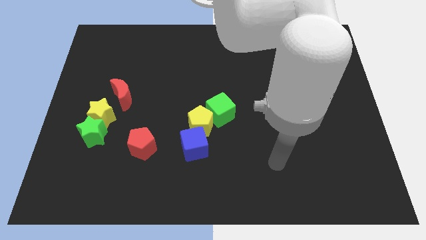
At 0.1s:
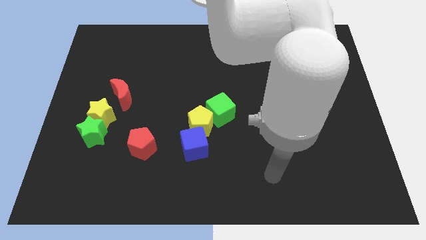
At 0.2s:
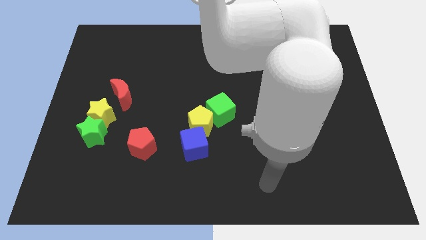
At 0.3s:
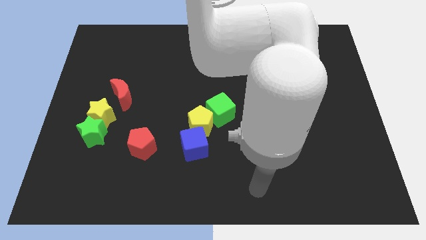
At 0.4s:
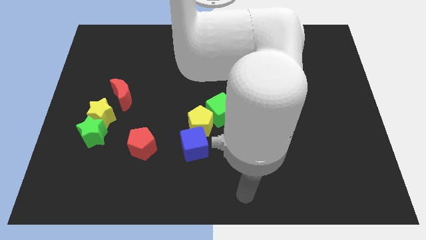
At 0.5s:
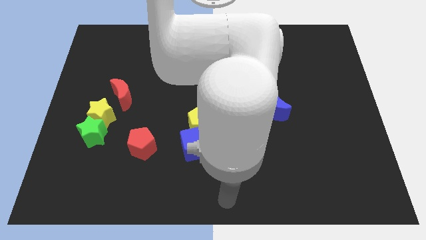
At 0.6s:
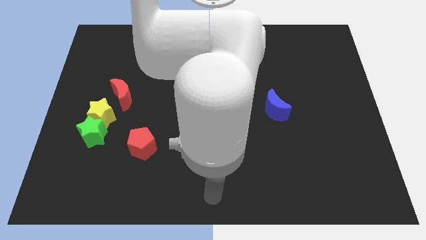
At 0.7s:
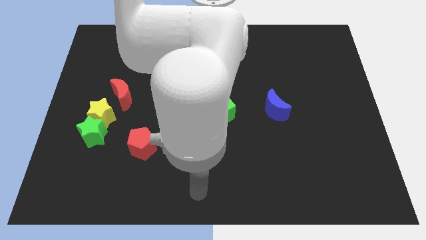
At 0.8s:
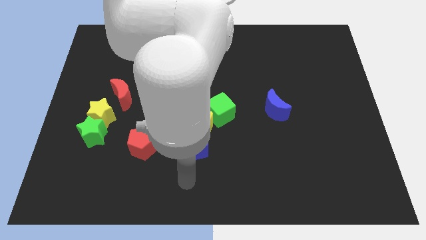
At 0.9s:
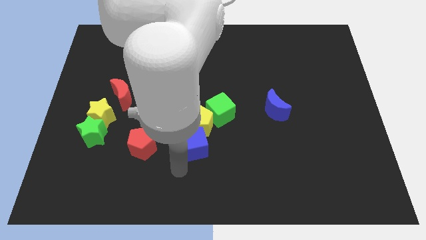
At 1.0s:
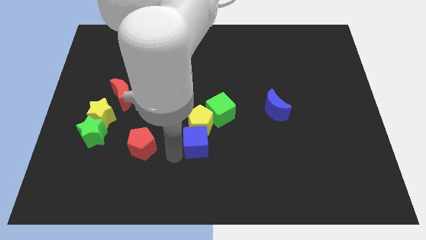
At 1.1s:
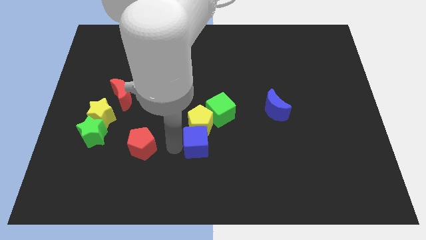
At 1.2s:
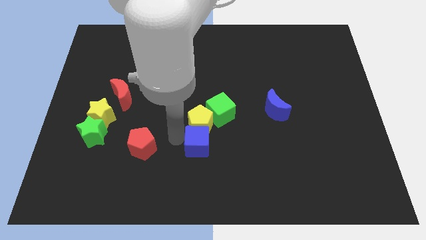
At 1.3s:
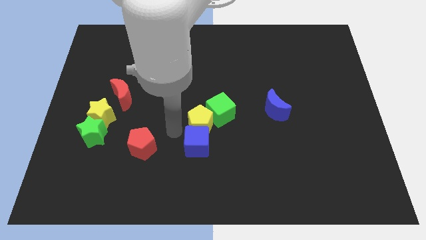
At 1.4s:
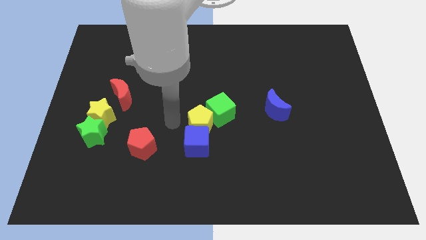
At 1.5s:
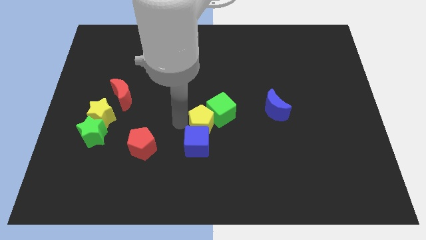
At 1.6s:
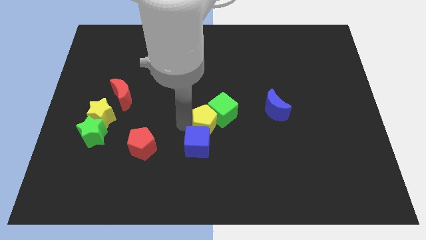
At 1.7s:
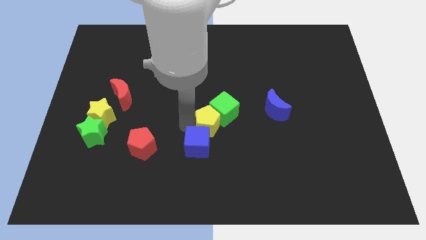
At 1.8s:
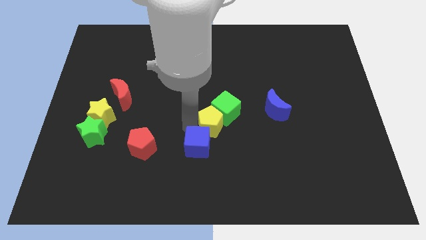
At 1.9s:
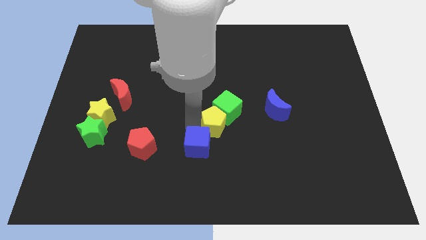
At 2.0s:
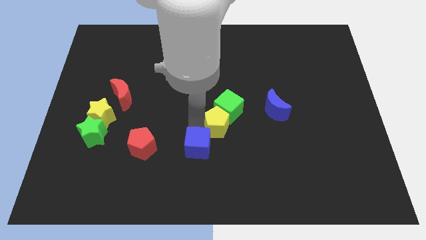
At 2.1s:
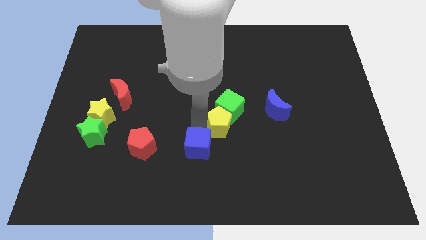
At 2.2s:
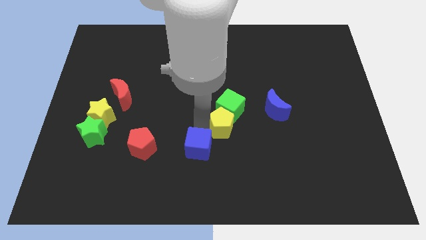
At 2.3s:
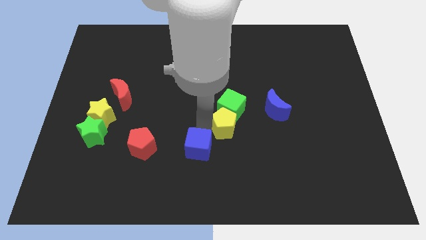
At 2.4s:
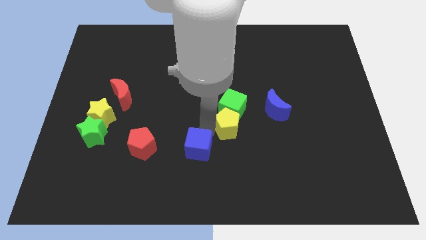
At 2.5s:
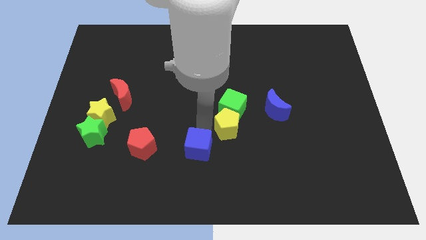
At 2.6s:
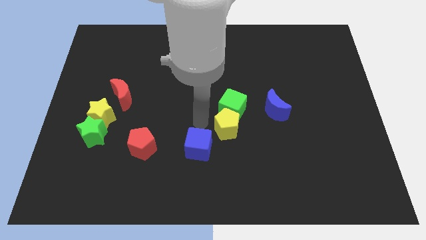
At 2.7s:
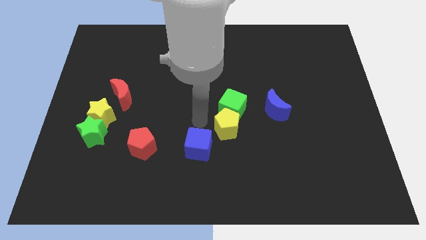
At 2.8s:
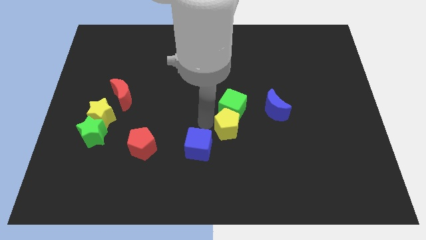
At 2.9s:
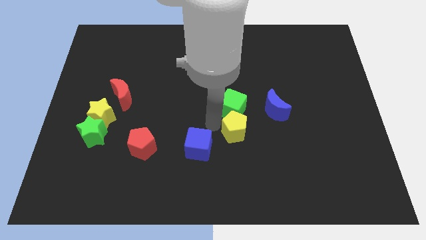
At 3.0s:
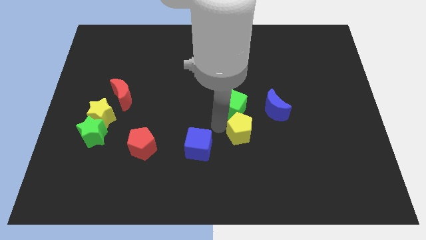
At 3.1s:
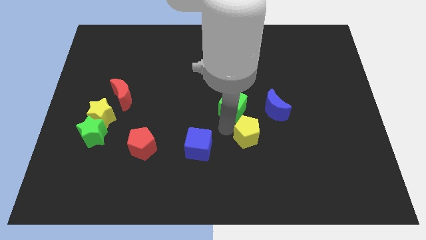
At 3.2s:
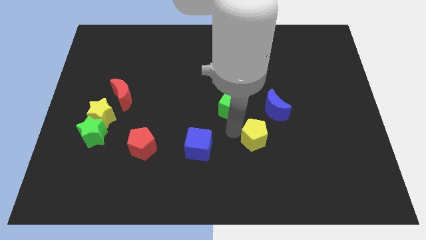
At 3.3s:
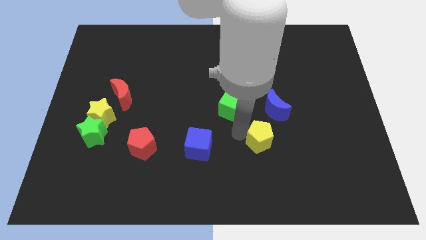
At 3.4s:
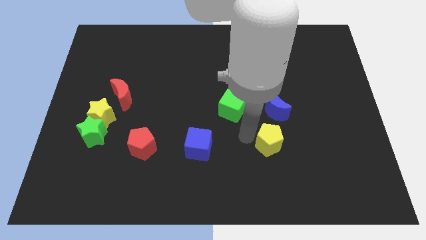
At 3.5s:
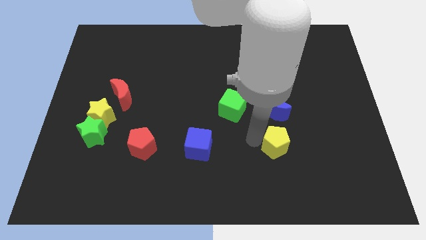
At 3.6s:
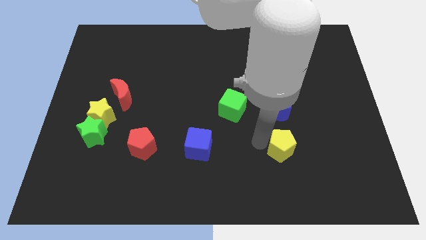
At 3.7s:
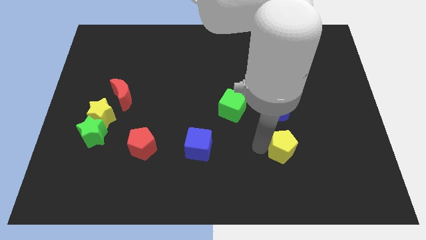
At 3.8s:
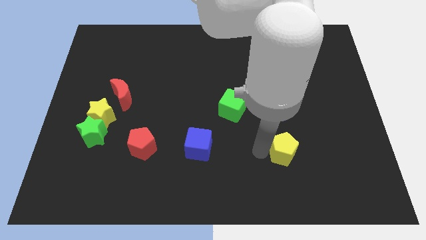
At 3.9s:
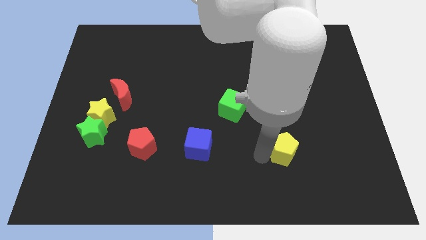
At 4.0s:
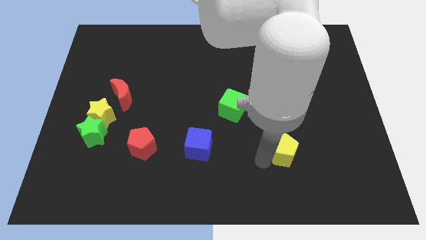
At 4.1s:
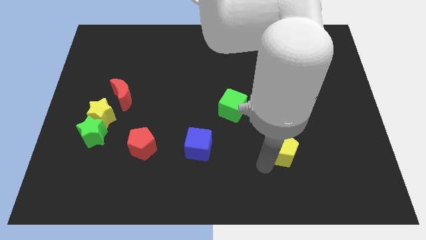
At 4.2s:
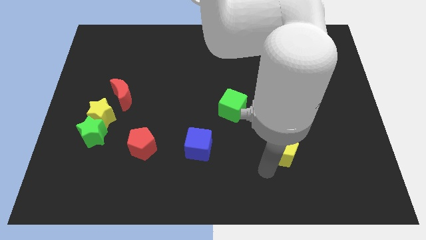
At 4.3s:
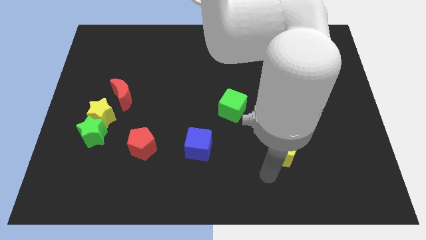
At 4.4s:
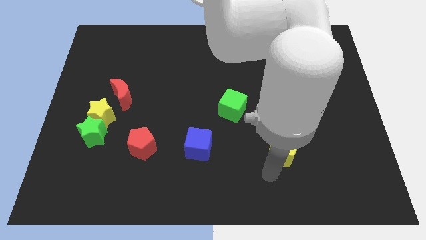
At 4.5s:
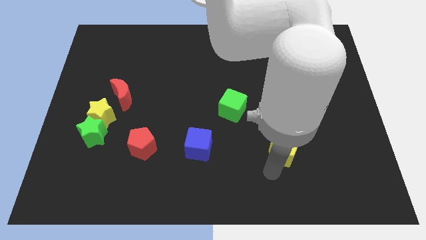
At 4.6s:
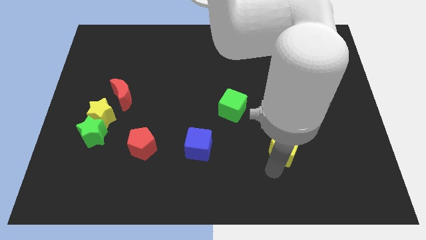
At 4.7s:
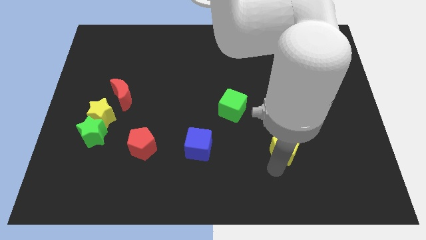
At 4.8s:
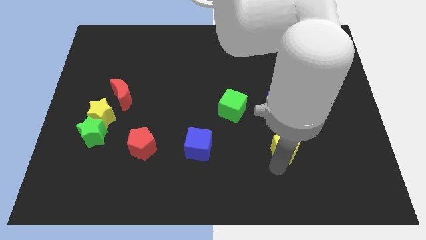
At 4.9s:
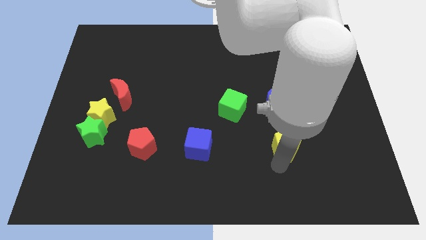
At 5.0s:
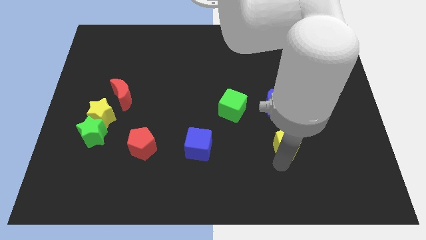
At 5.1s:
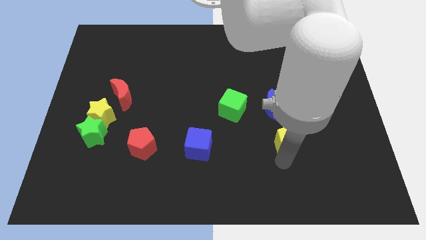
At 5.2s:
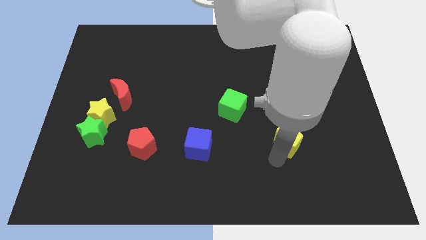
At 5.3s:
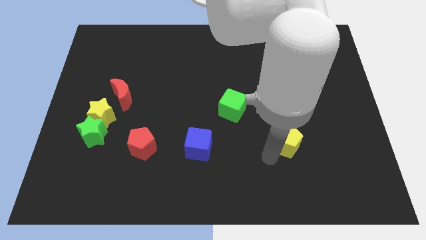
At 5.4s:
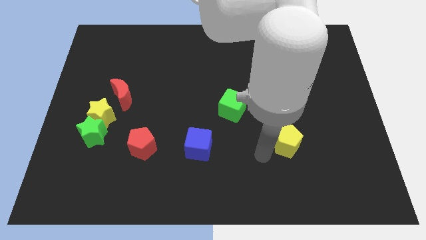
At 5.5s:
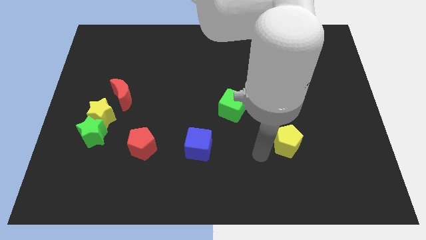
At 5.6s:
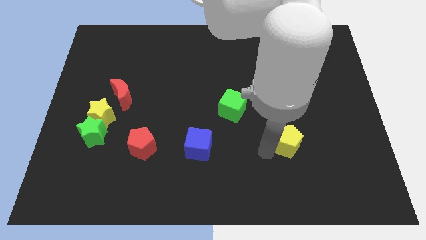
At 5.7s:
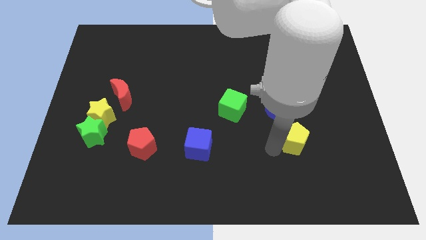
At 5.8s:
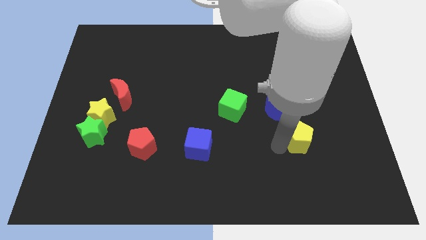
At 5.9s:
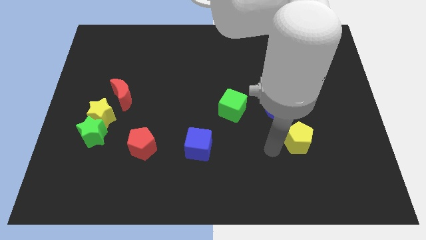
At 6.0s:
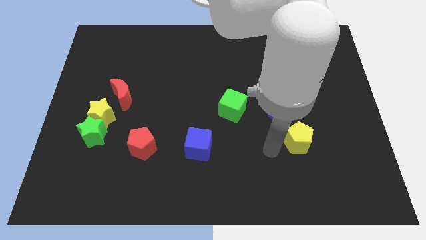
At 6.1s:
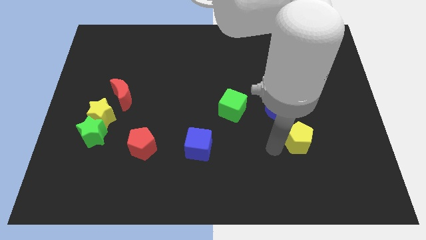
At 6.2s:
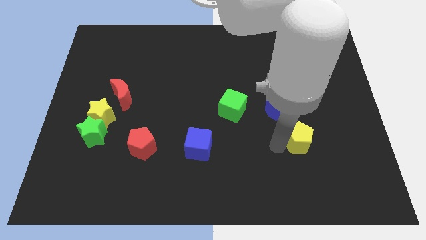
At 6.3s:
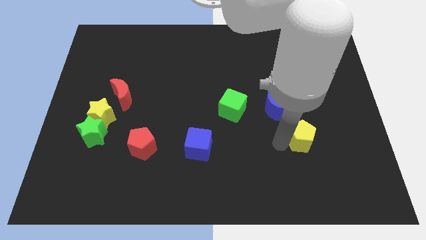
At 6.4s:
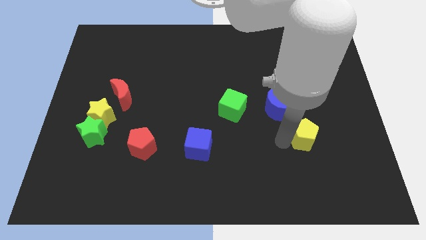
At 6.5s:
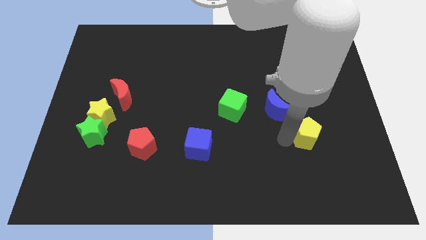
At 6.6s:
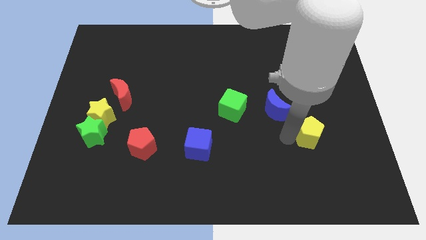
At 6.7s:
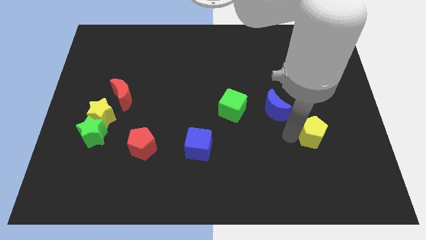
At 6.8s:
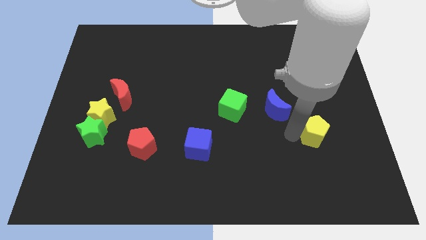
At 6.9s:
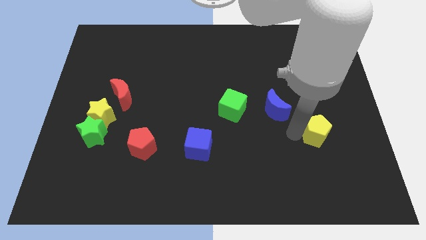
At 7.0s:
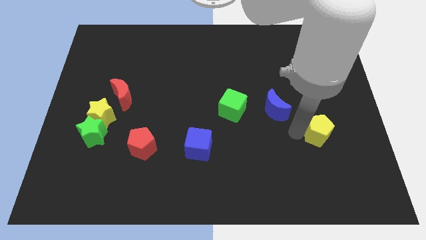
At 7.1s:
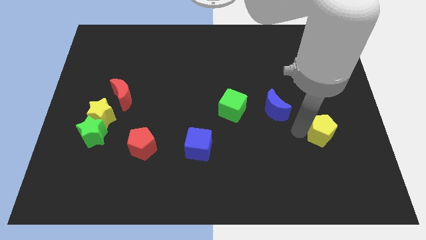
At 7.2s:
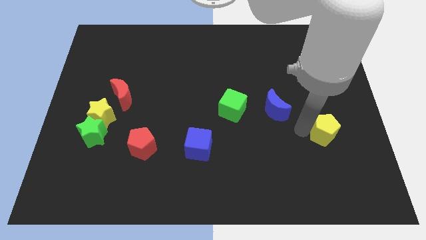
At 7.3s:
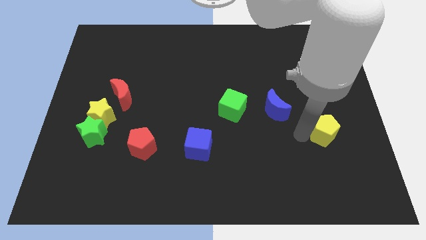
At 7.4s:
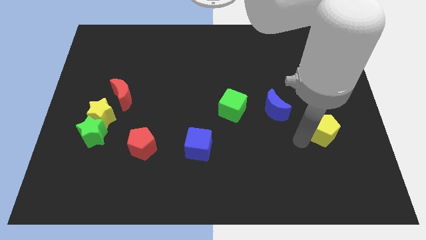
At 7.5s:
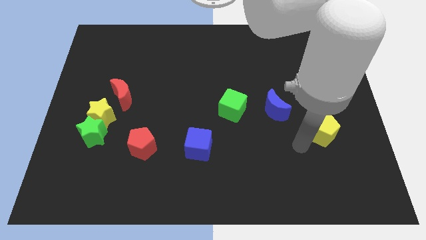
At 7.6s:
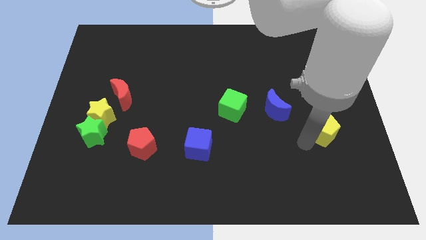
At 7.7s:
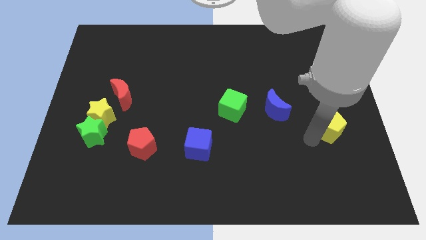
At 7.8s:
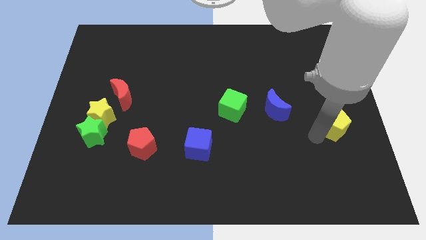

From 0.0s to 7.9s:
slide the yellow pentagon to the right side
